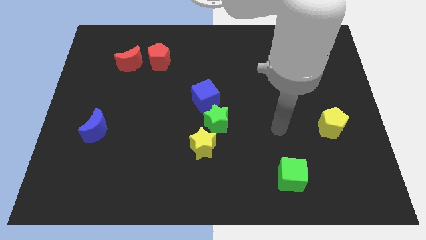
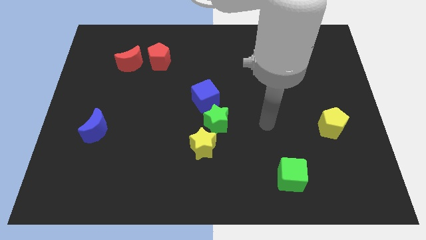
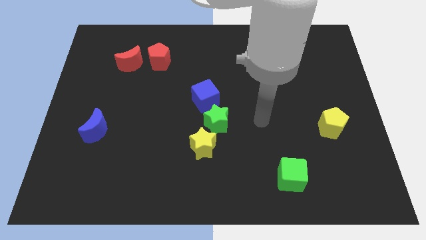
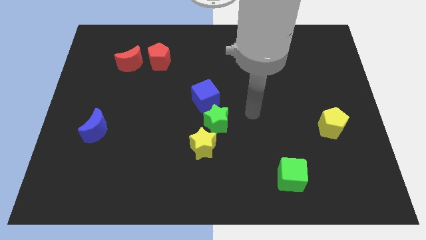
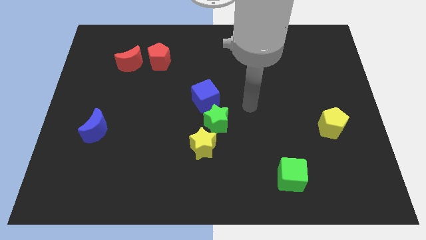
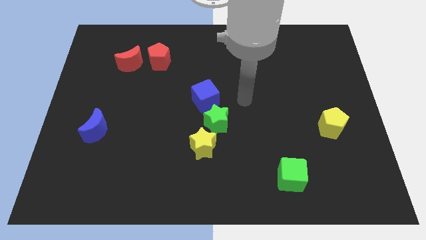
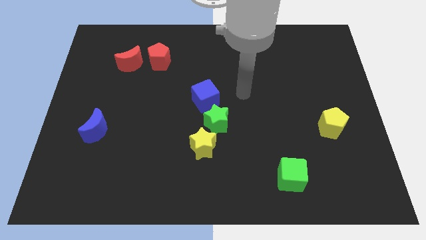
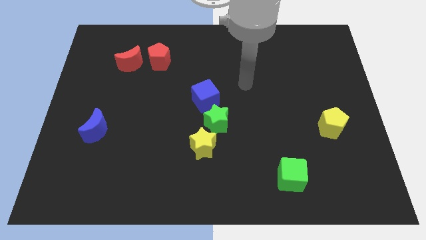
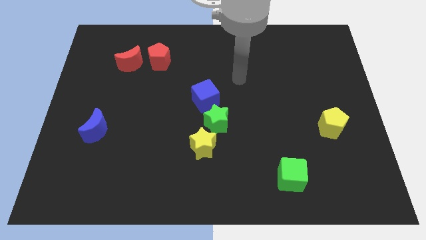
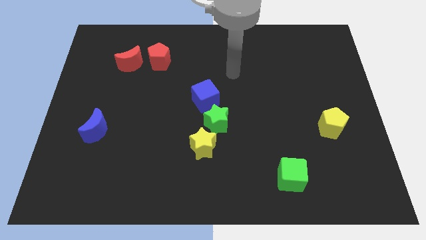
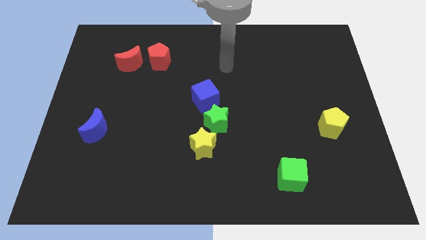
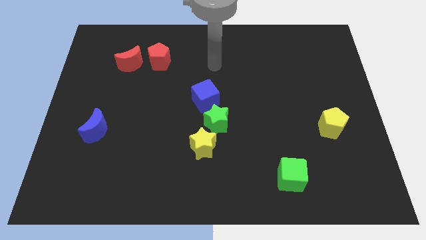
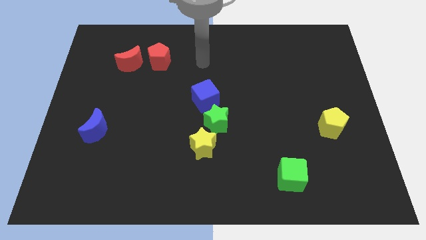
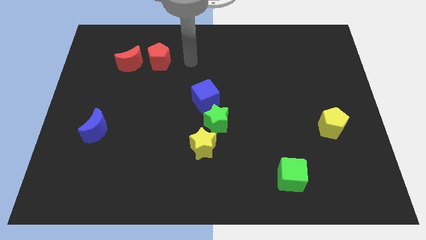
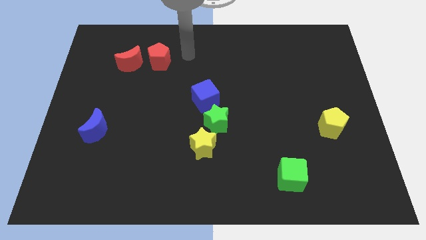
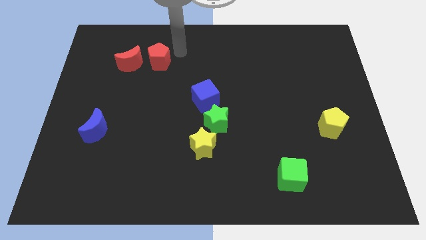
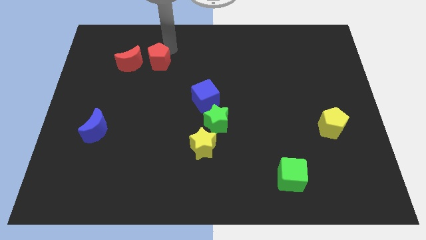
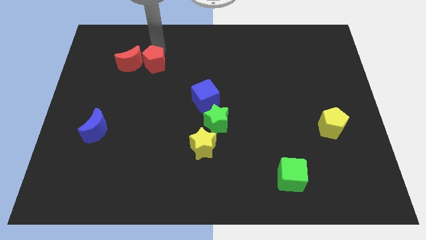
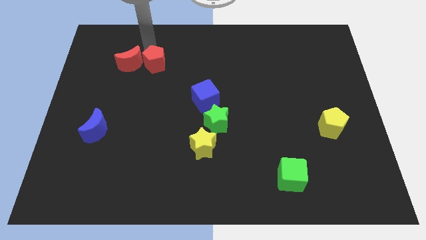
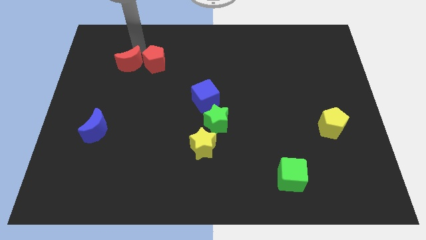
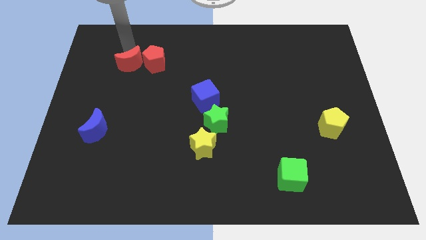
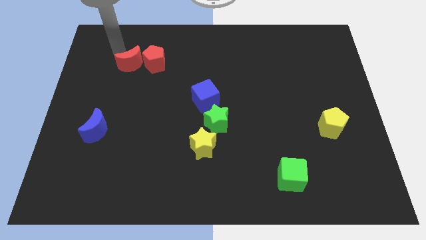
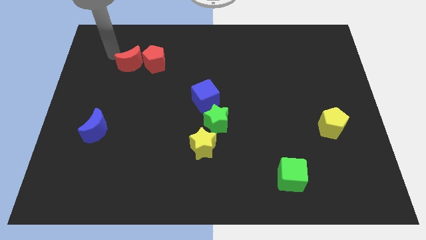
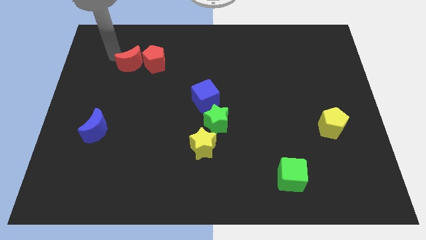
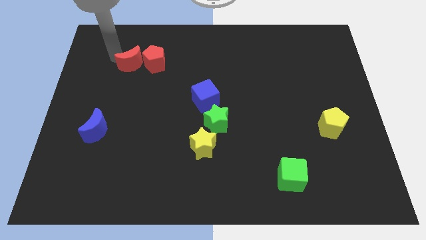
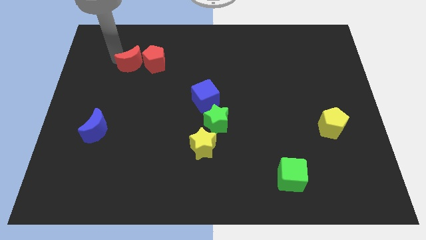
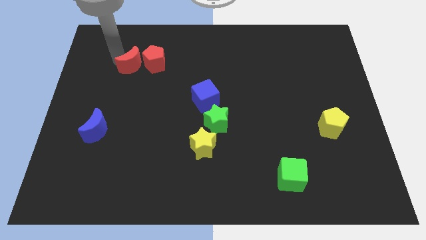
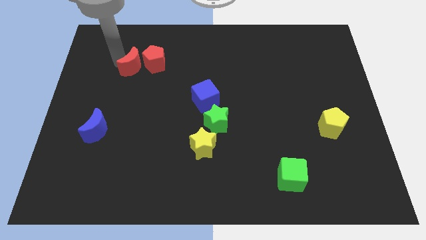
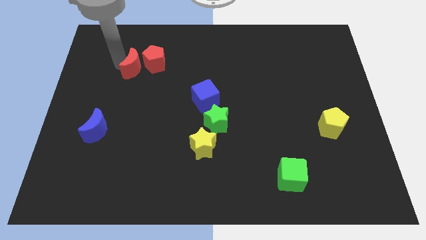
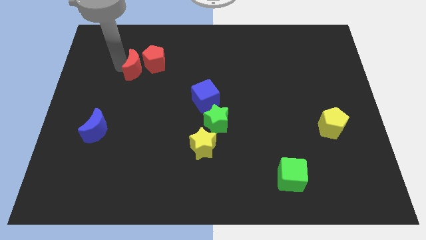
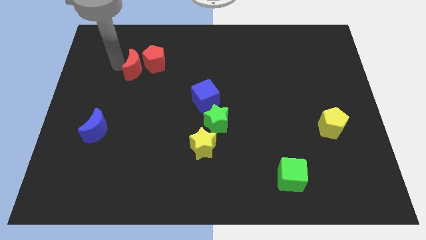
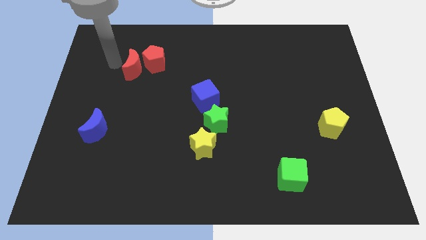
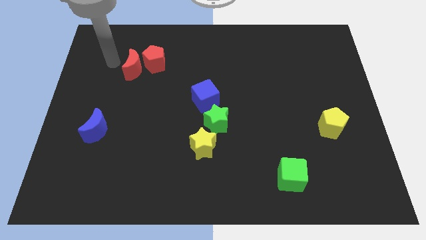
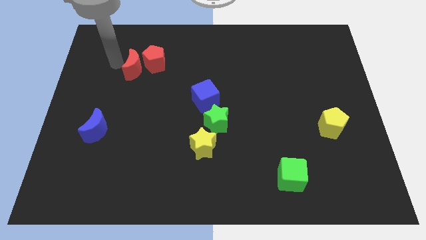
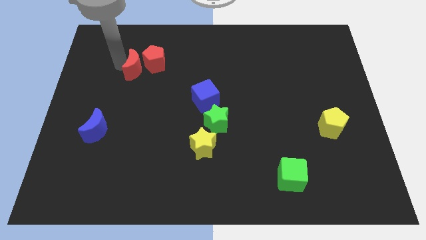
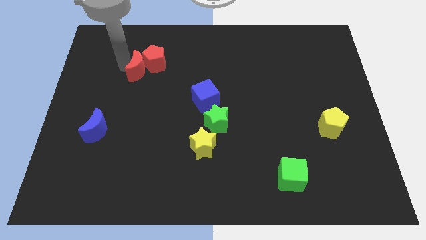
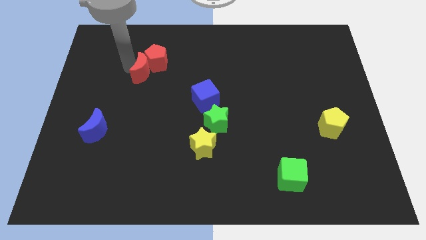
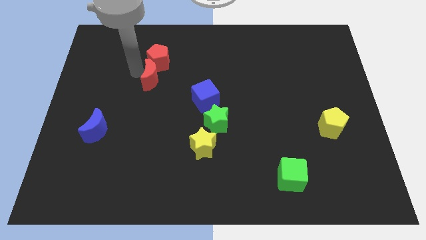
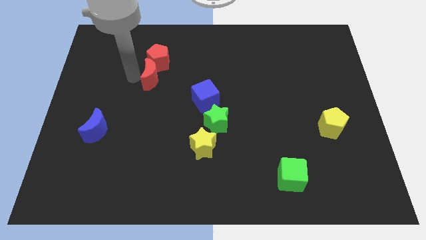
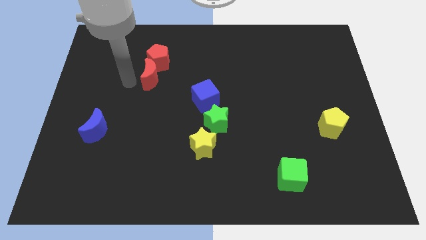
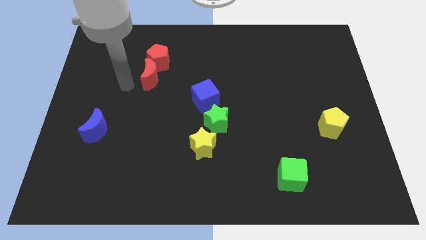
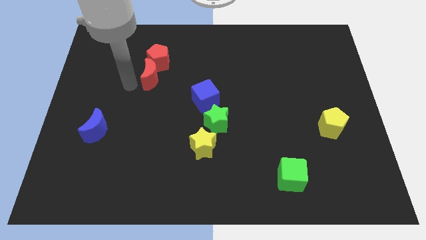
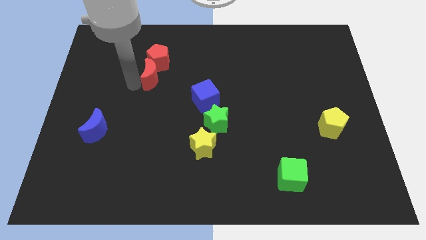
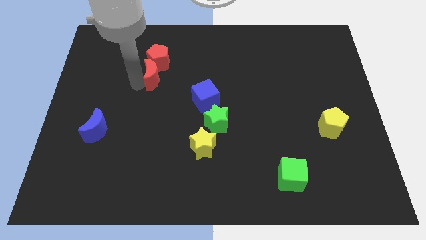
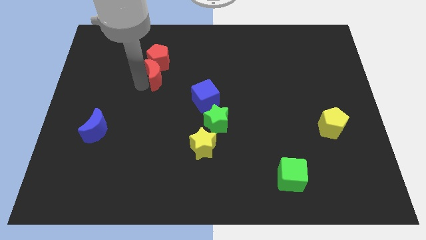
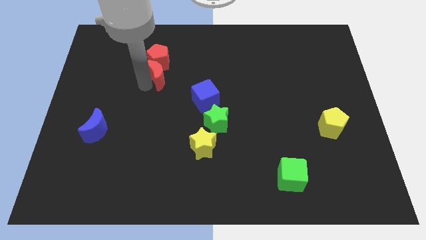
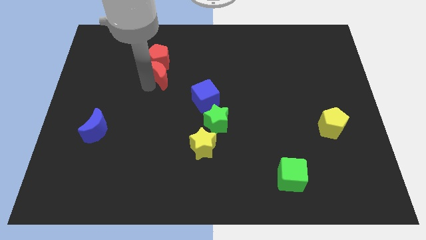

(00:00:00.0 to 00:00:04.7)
slightly push the red moon right

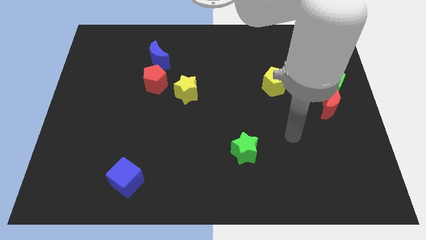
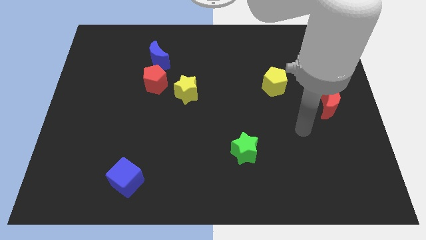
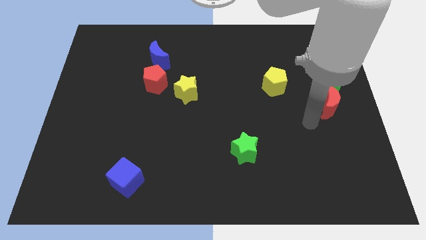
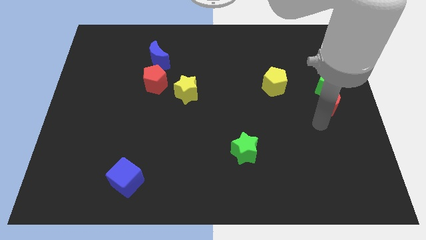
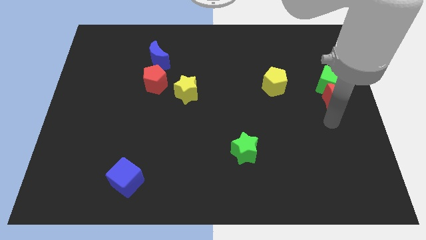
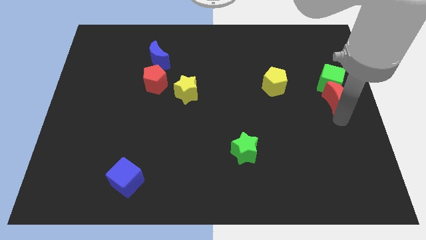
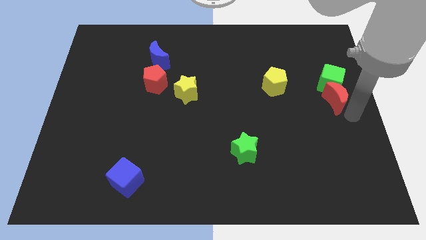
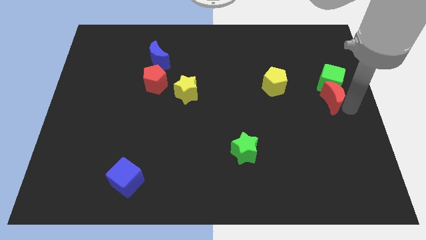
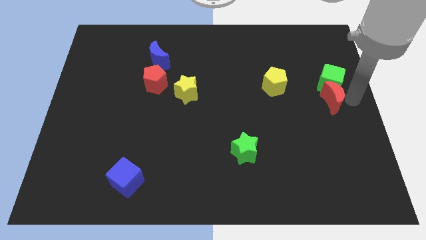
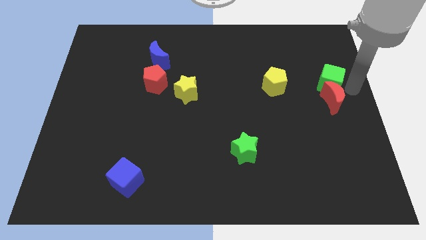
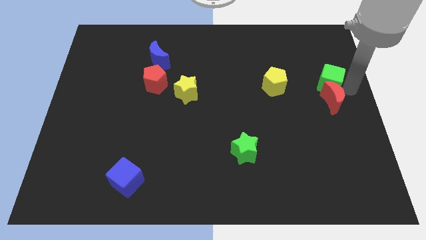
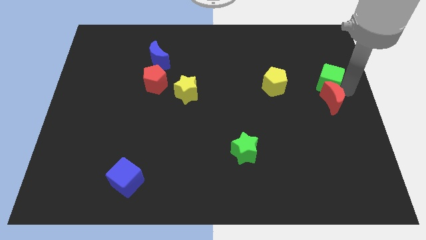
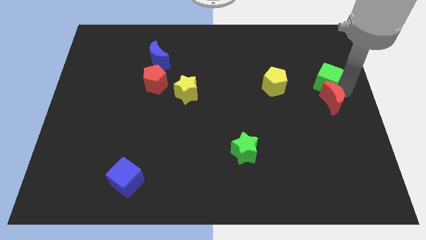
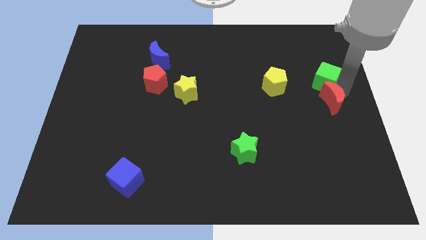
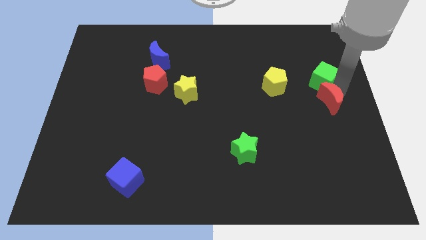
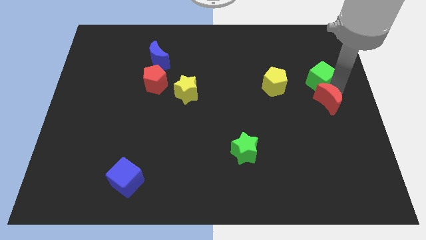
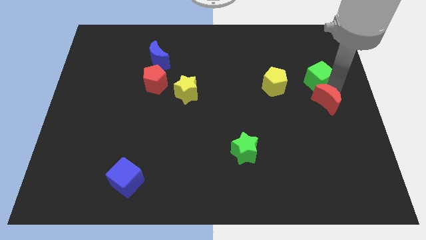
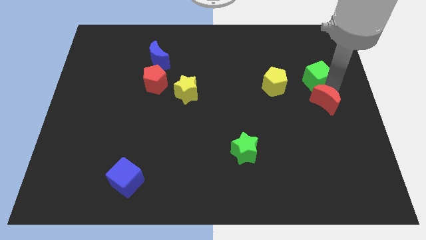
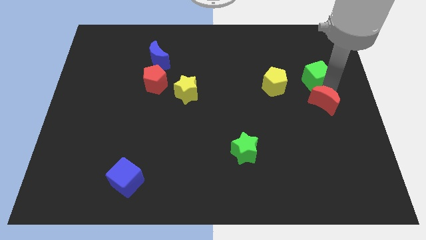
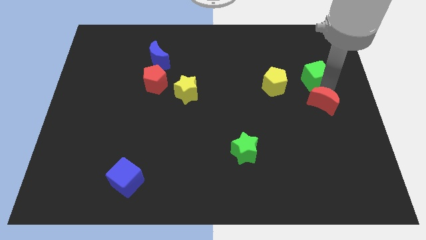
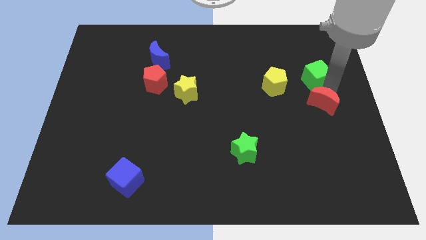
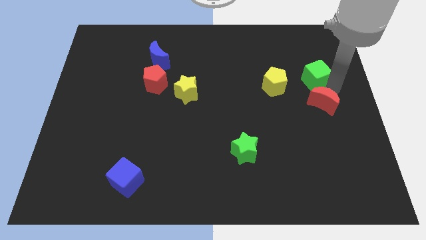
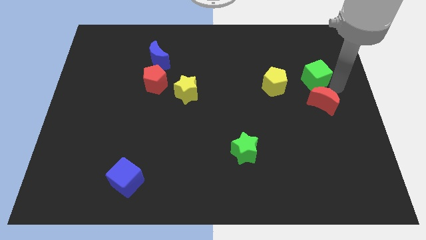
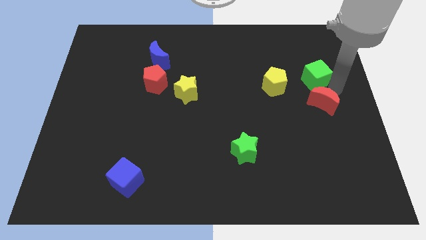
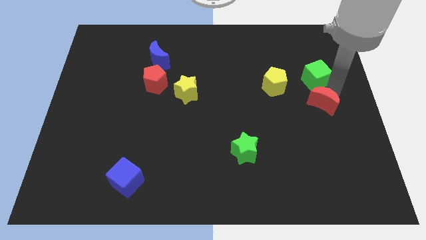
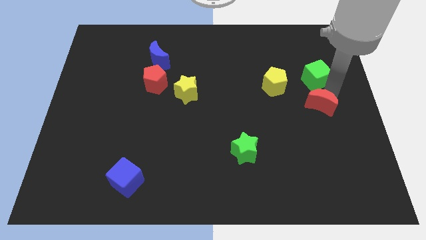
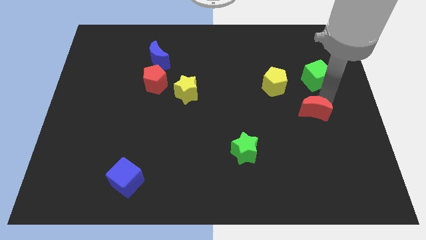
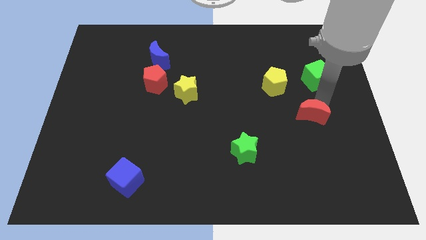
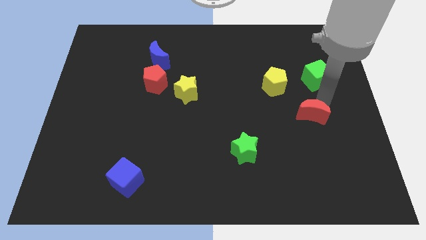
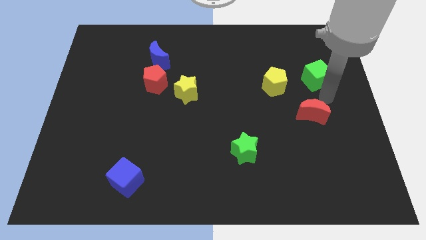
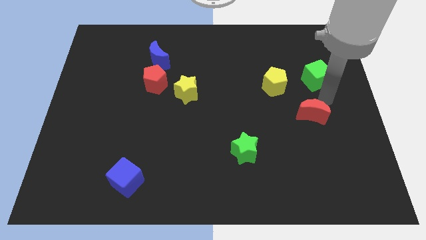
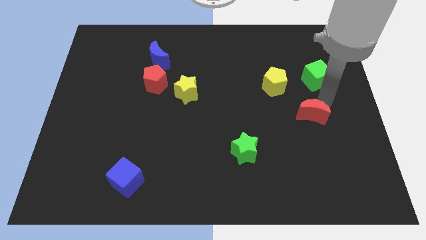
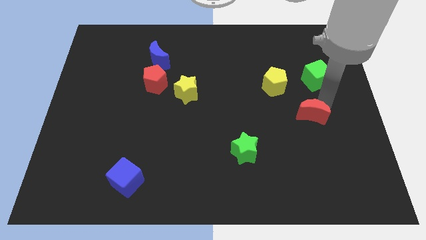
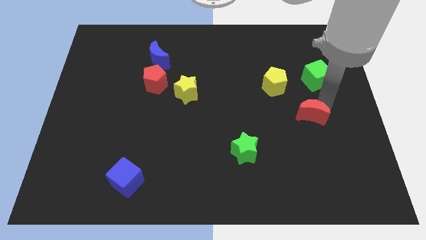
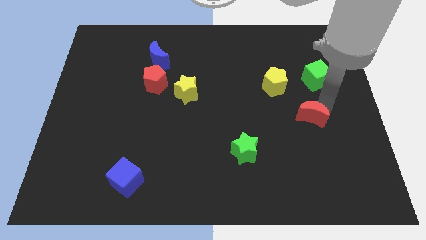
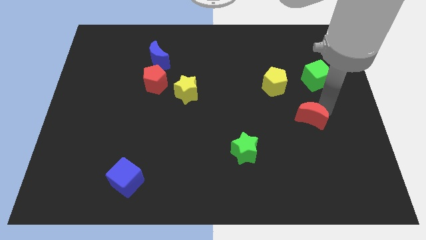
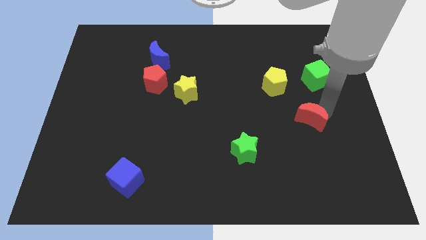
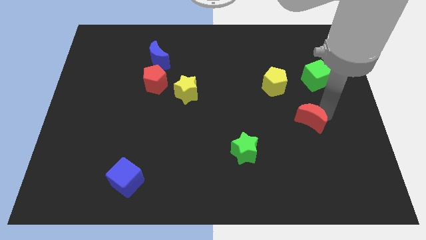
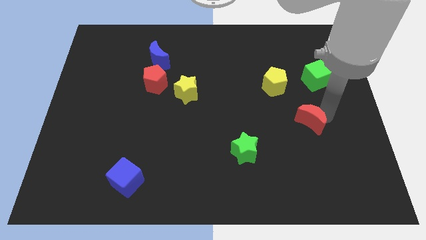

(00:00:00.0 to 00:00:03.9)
move the red moon a bit downwards and then left
